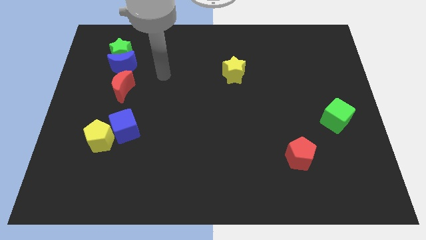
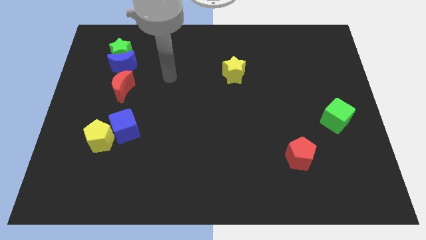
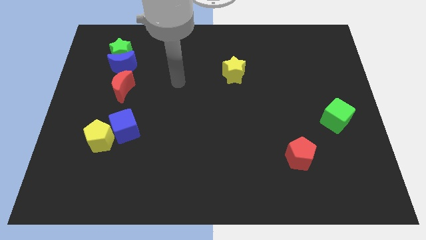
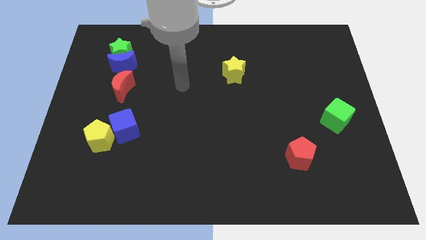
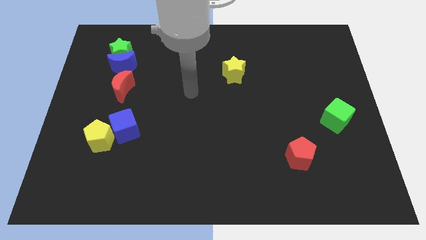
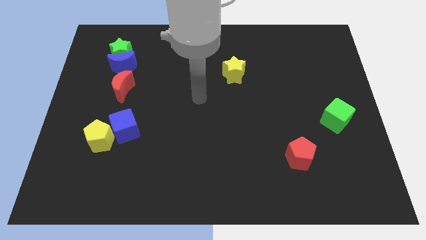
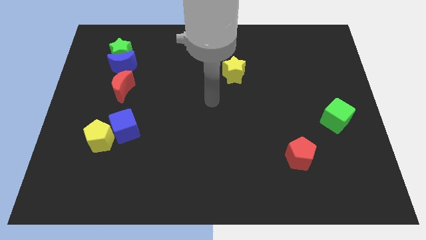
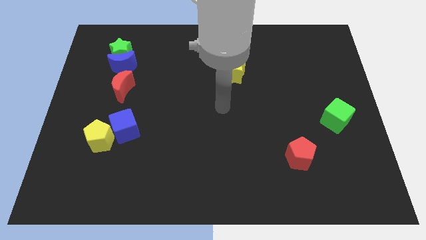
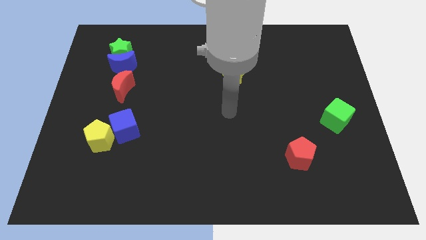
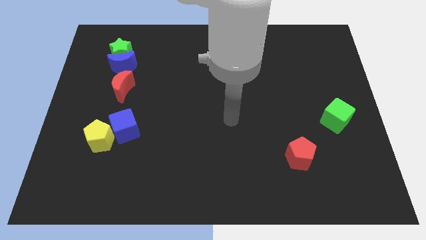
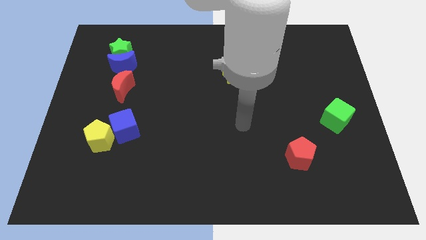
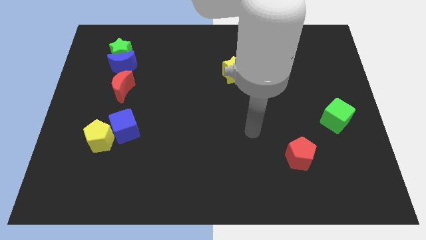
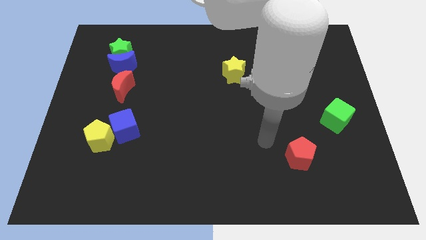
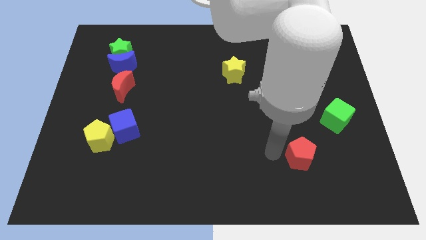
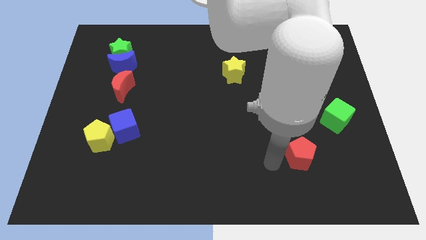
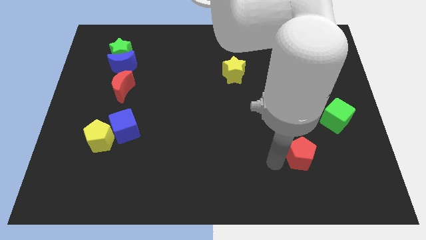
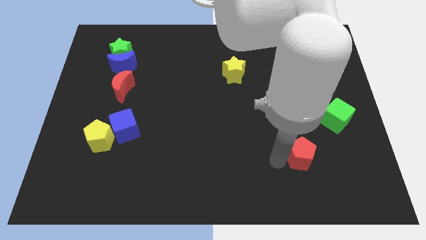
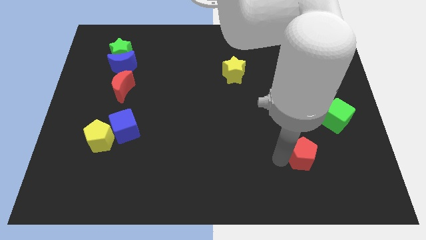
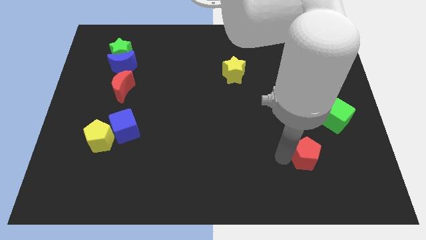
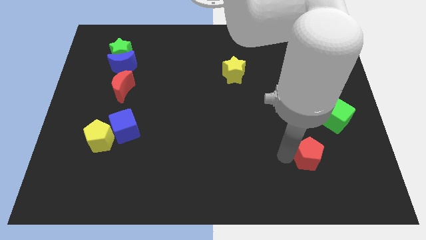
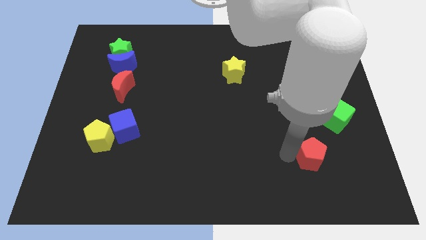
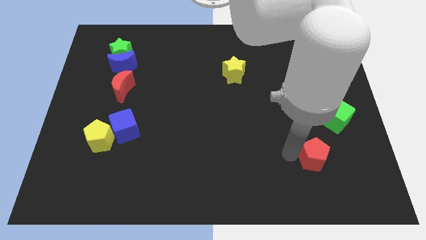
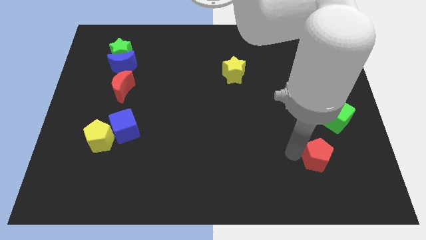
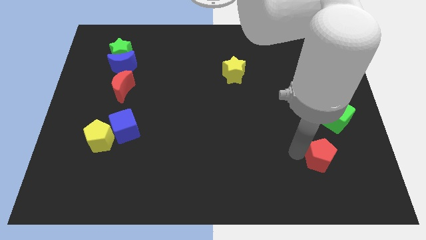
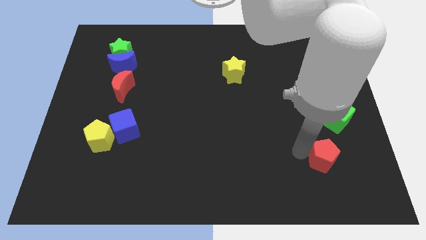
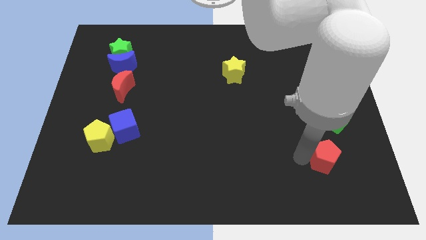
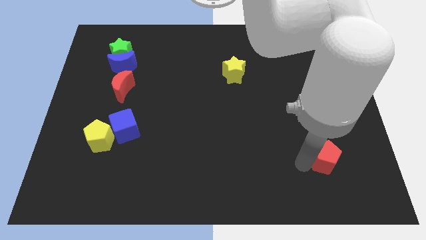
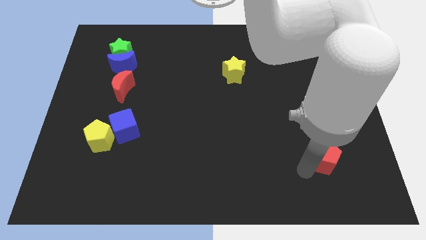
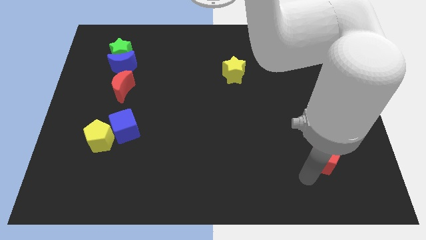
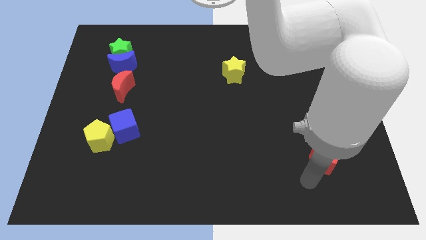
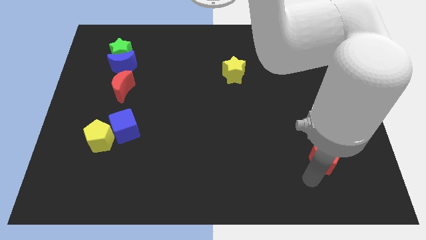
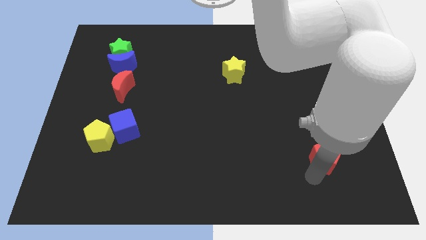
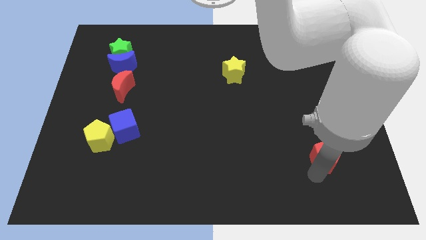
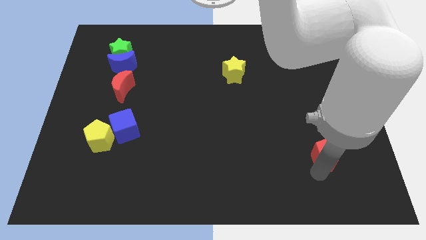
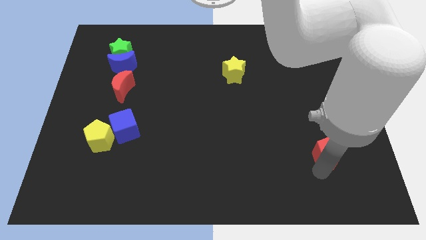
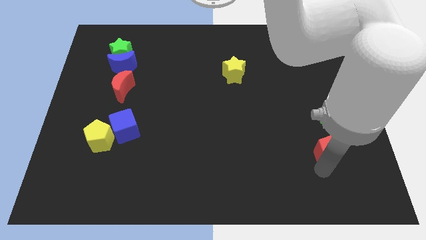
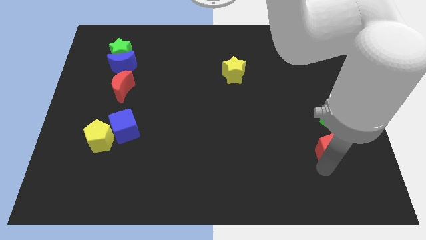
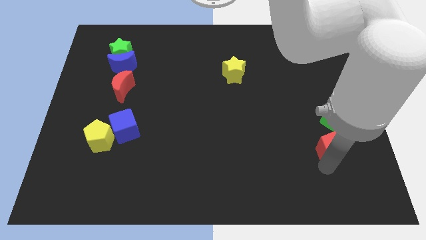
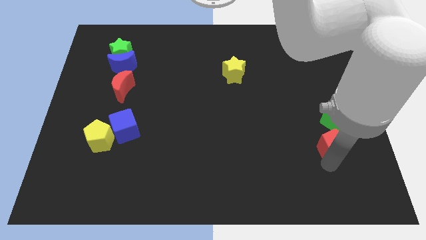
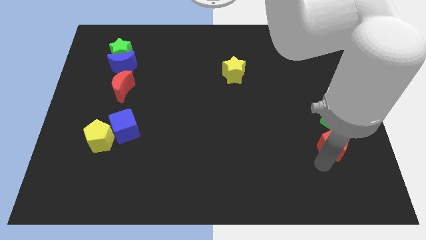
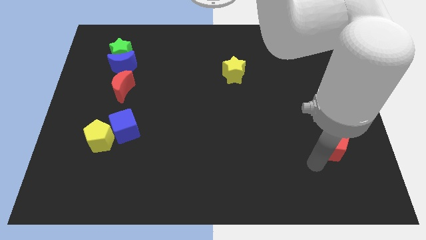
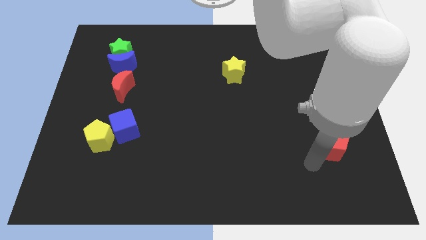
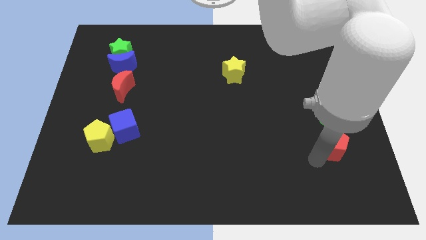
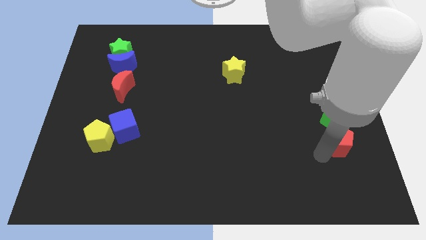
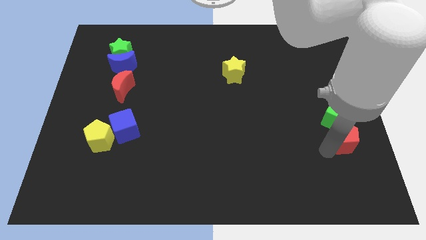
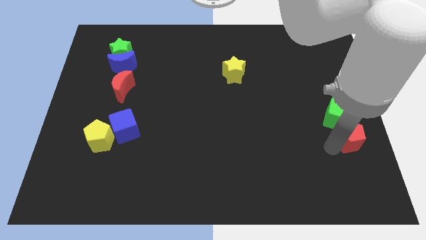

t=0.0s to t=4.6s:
move the red pentagon to the right side of the board

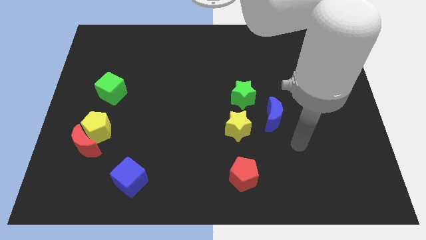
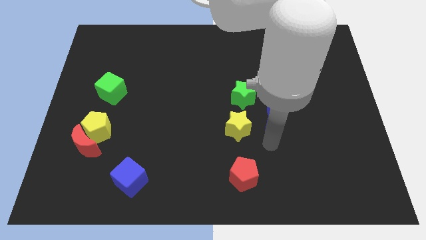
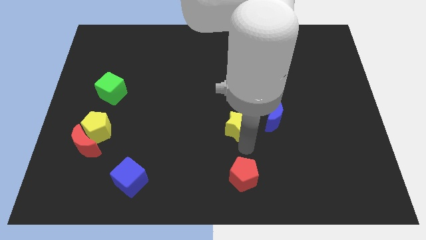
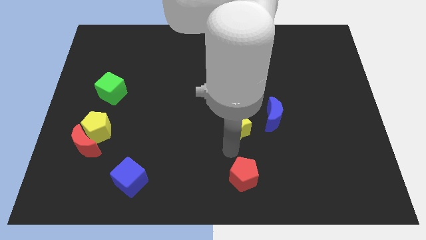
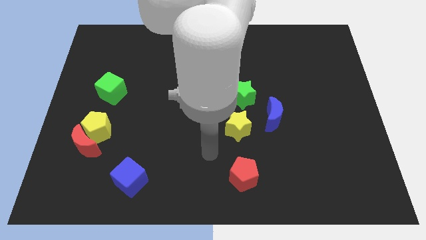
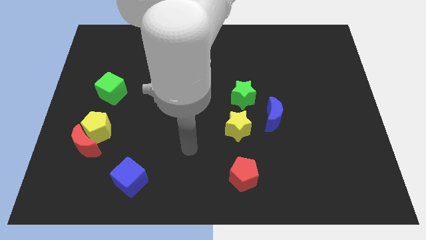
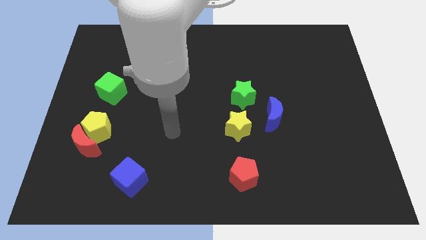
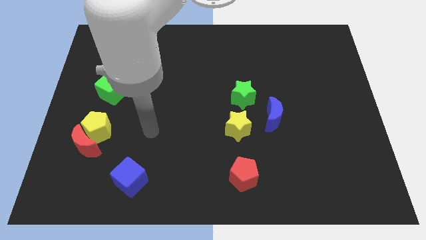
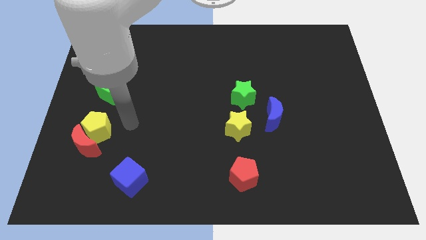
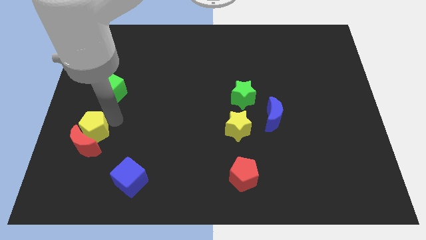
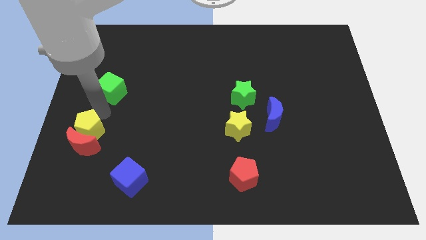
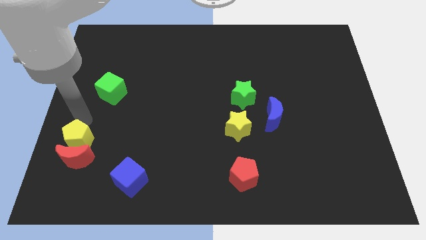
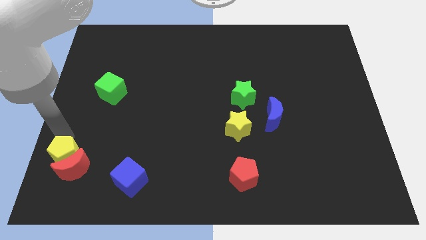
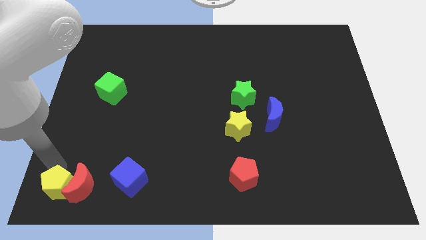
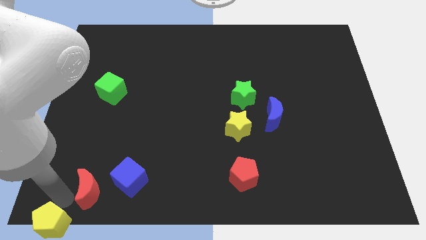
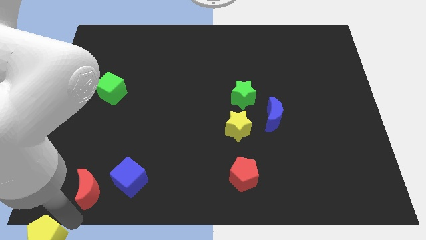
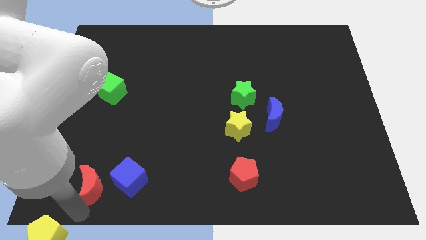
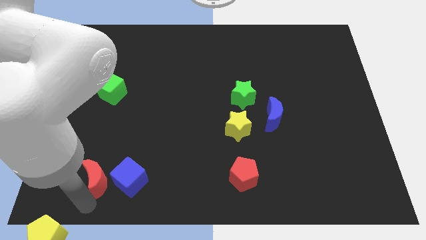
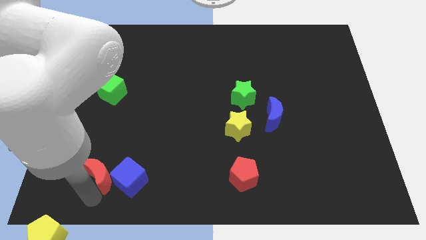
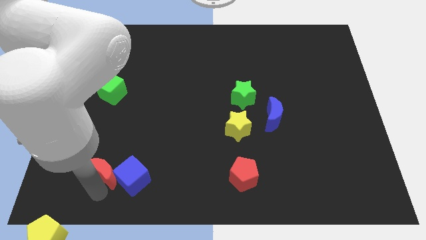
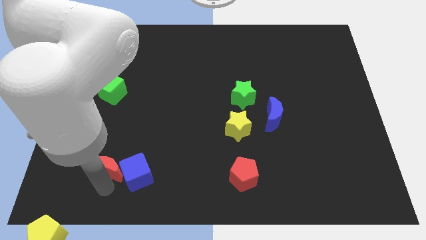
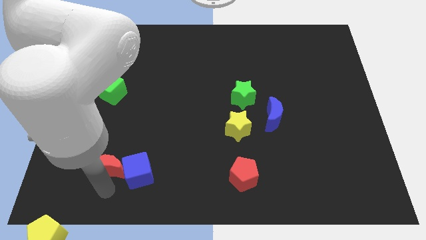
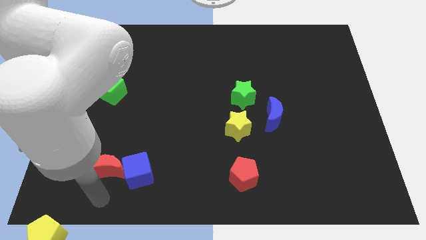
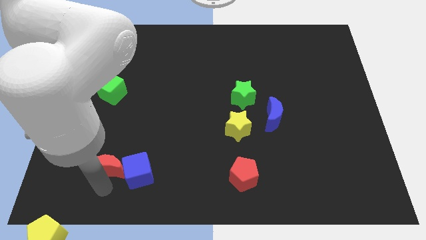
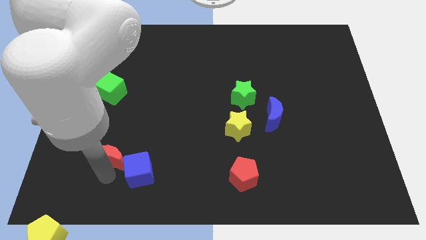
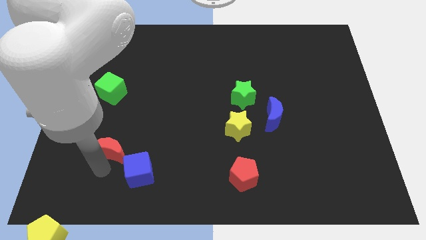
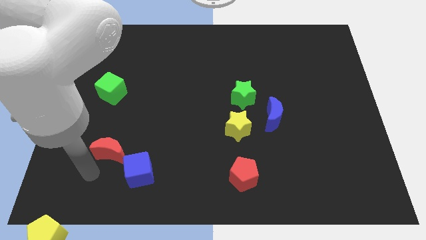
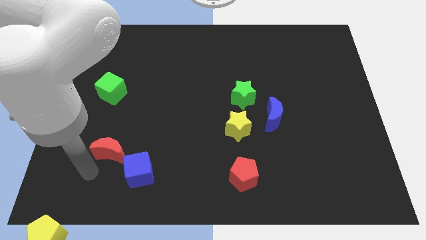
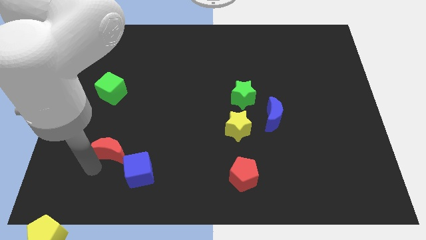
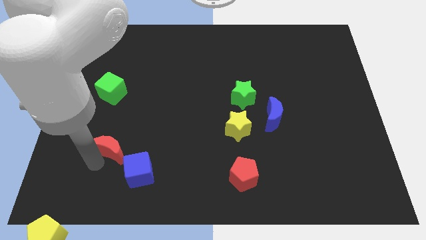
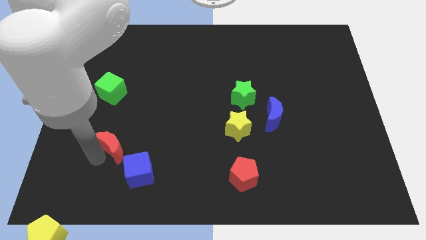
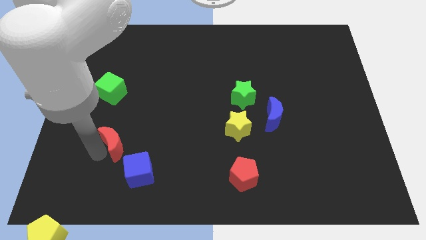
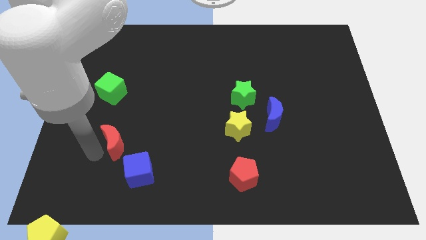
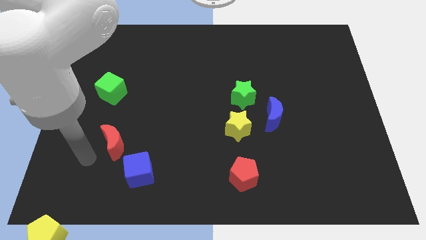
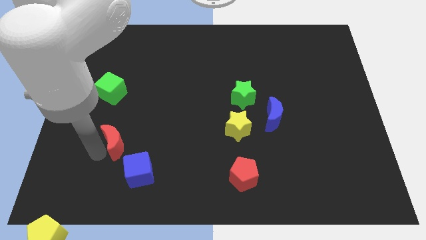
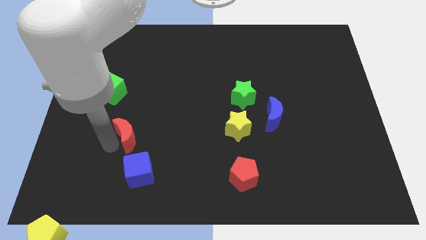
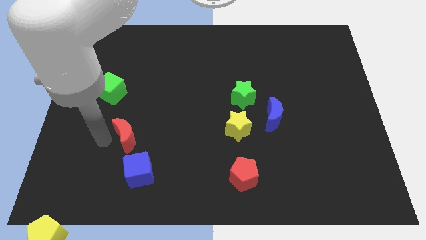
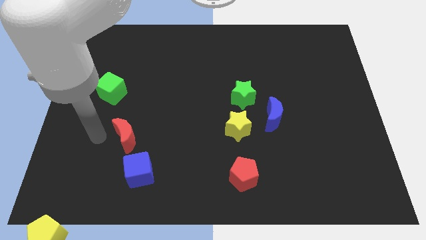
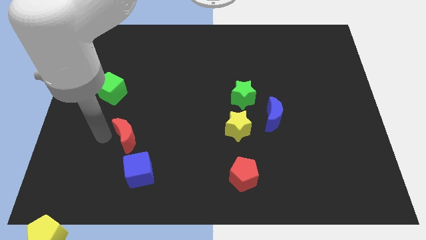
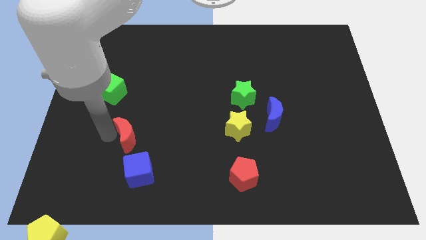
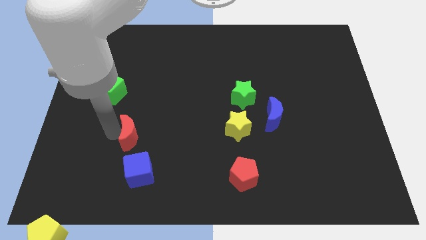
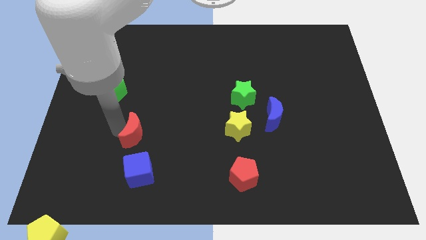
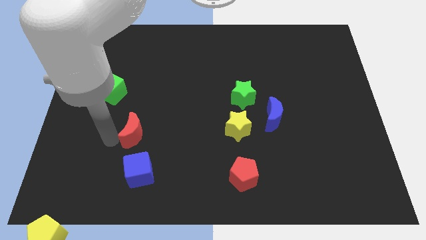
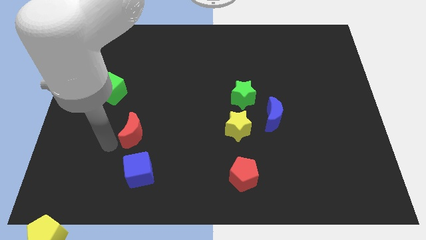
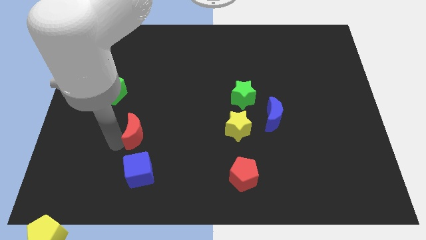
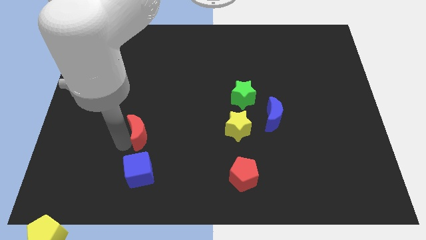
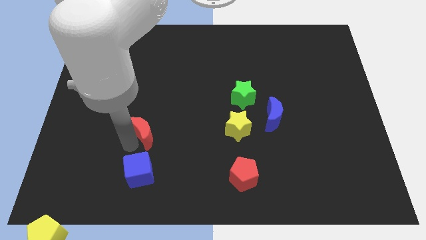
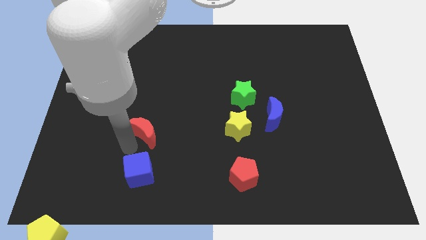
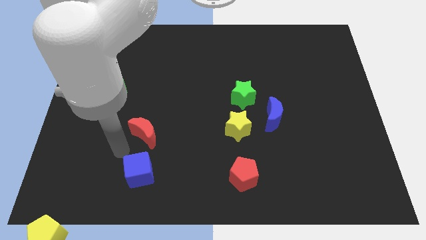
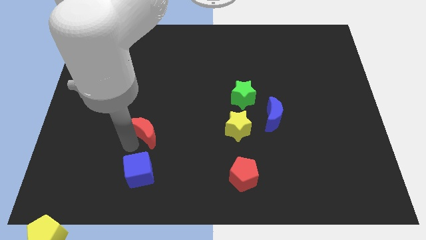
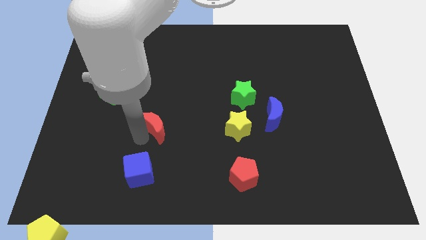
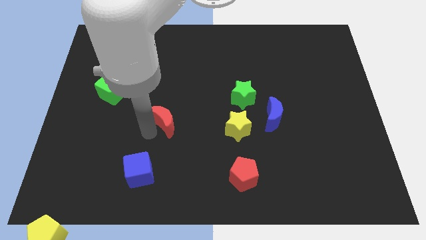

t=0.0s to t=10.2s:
put the red moon to the middle of the board
